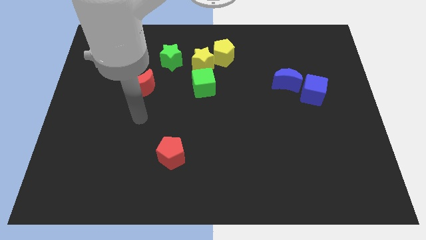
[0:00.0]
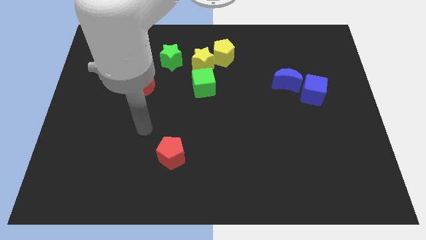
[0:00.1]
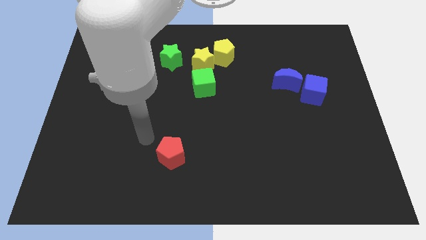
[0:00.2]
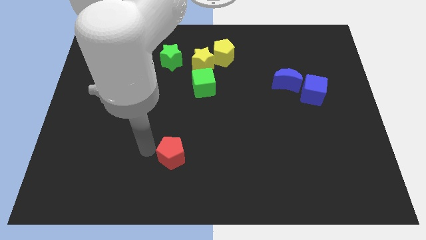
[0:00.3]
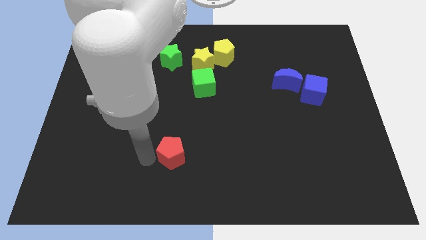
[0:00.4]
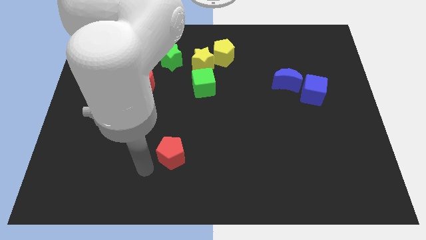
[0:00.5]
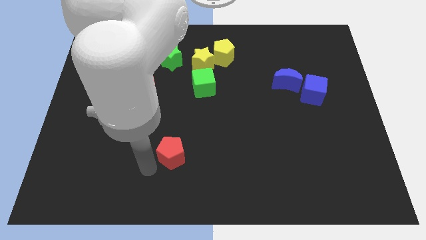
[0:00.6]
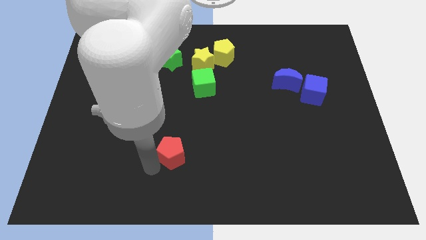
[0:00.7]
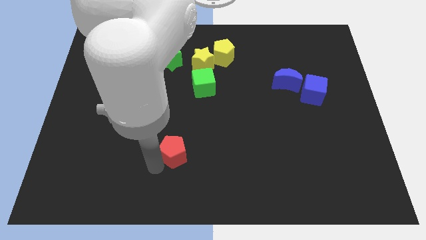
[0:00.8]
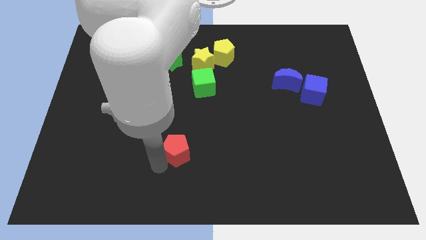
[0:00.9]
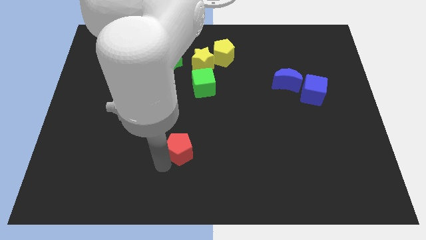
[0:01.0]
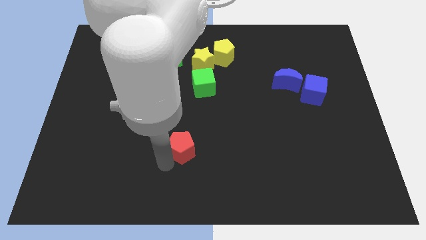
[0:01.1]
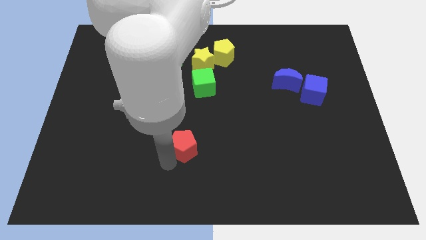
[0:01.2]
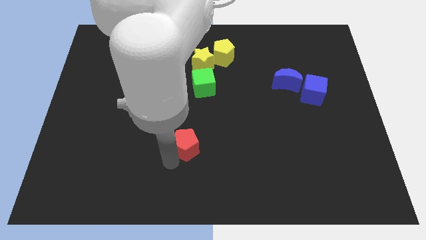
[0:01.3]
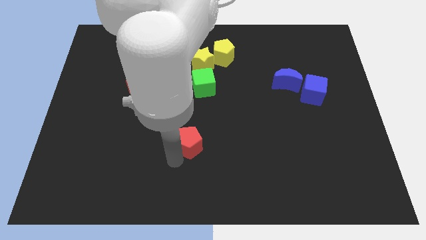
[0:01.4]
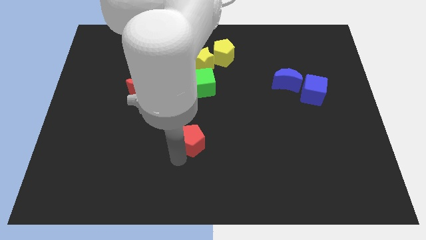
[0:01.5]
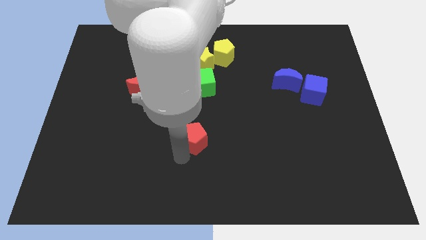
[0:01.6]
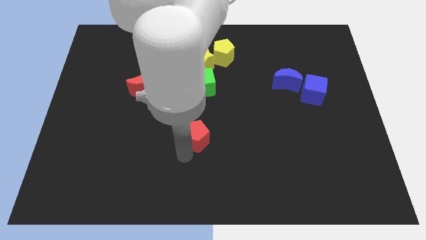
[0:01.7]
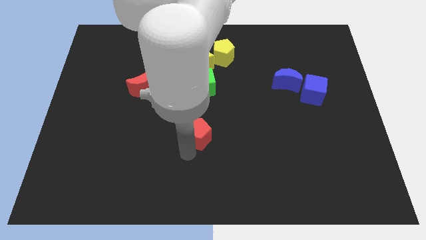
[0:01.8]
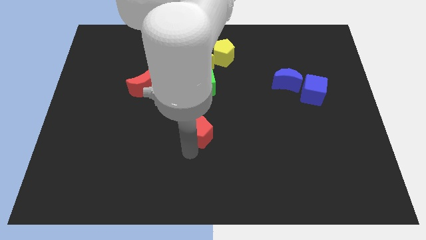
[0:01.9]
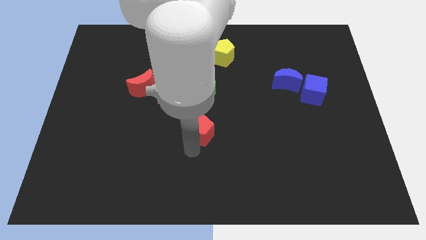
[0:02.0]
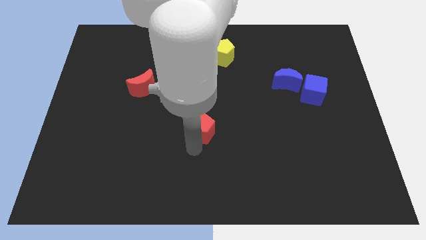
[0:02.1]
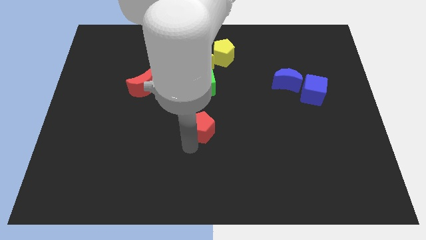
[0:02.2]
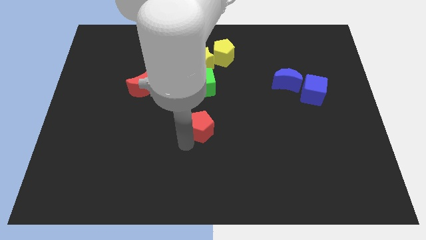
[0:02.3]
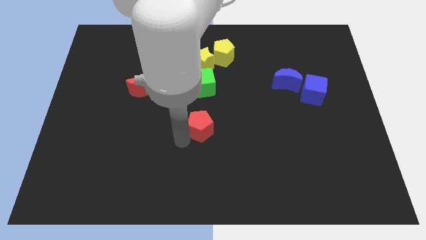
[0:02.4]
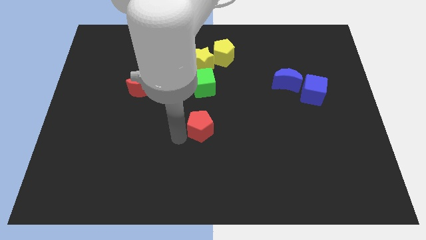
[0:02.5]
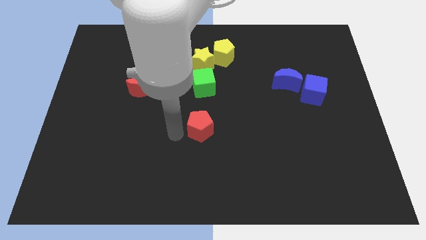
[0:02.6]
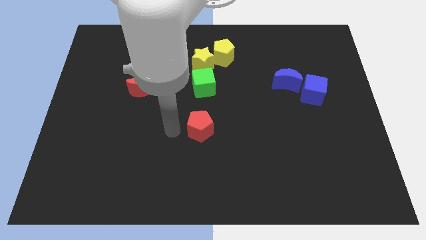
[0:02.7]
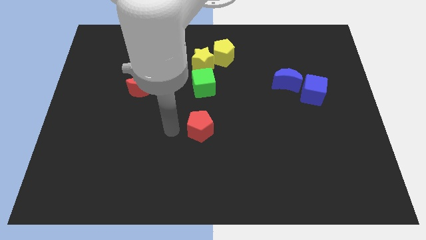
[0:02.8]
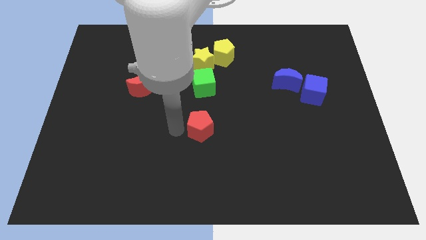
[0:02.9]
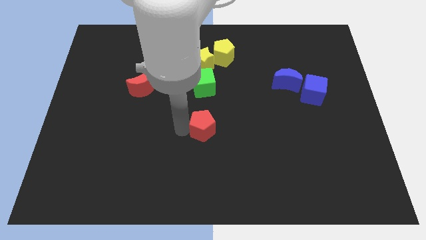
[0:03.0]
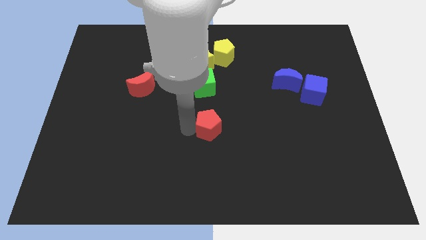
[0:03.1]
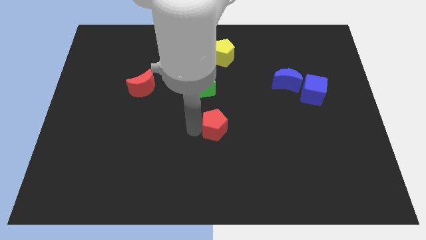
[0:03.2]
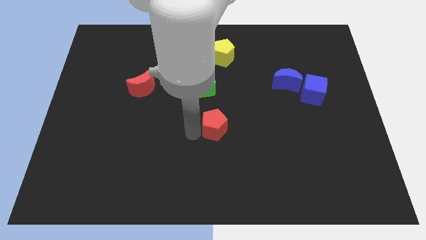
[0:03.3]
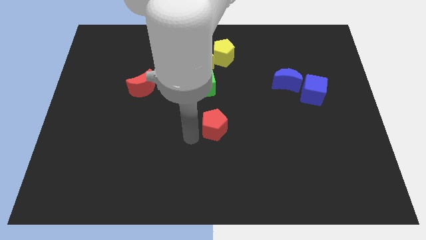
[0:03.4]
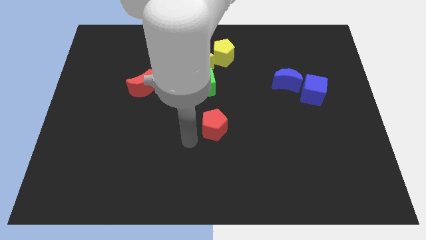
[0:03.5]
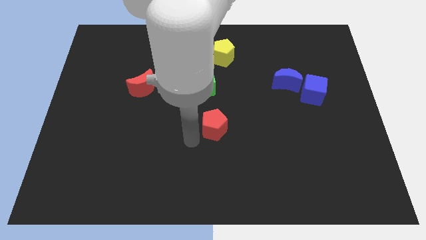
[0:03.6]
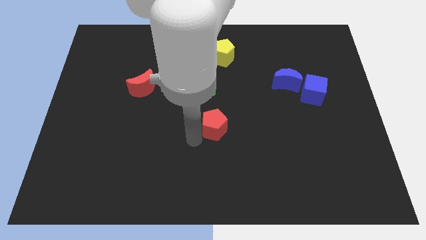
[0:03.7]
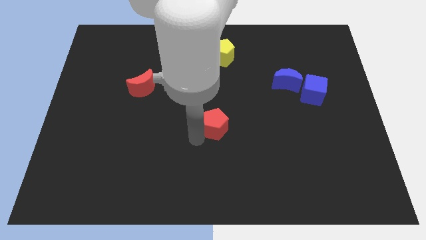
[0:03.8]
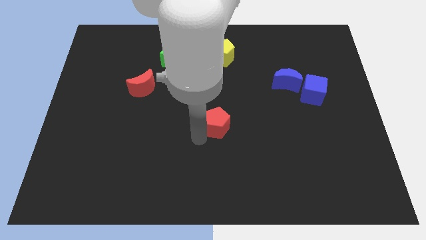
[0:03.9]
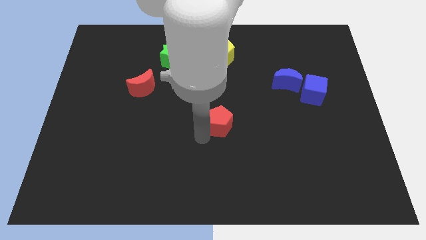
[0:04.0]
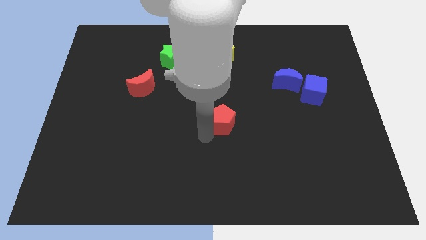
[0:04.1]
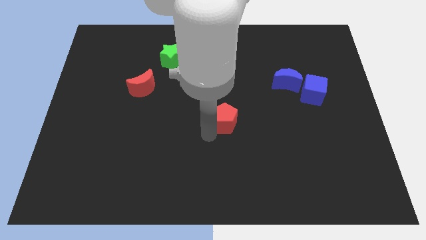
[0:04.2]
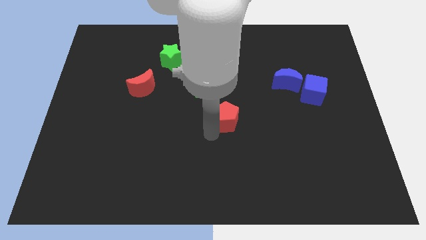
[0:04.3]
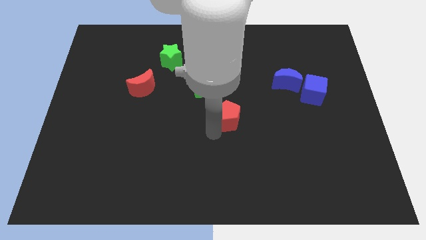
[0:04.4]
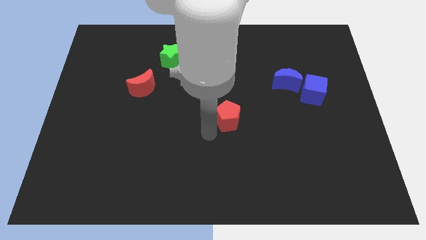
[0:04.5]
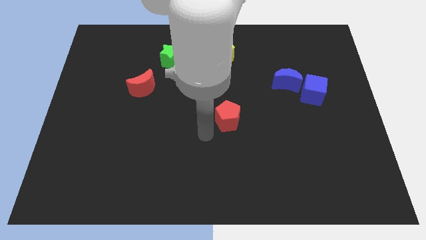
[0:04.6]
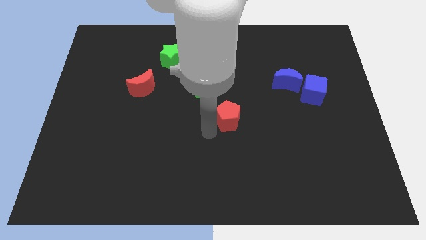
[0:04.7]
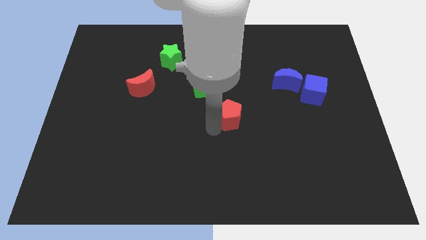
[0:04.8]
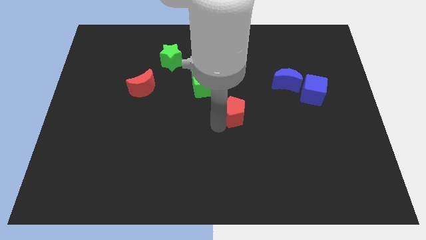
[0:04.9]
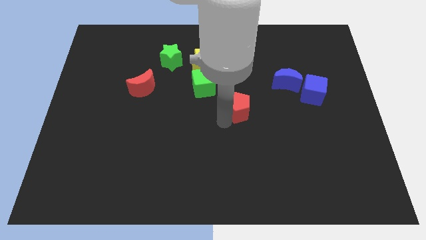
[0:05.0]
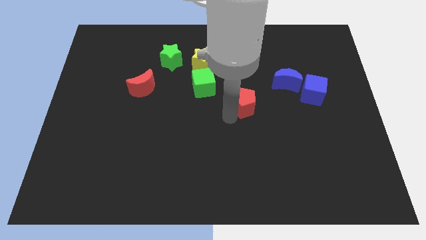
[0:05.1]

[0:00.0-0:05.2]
move the red pentagon up and then right

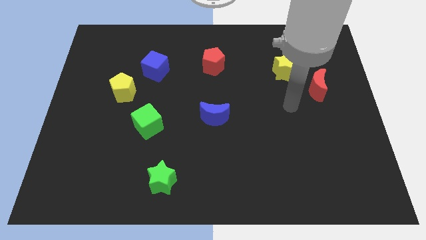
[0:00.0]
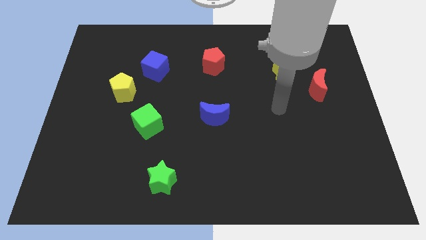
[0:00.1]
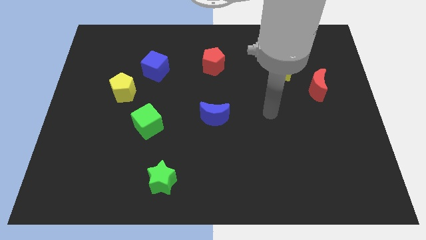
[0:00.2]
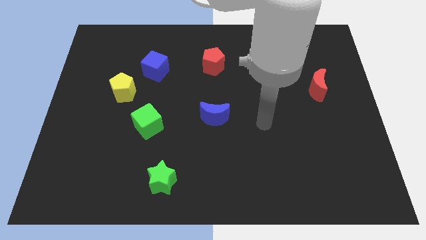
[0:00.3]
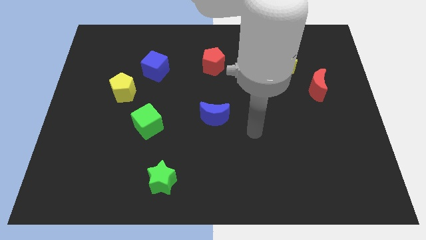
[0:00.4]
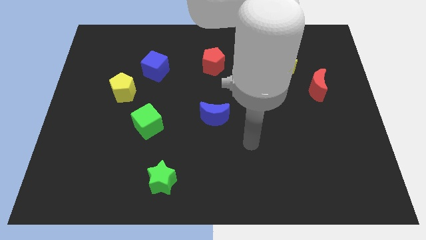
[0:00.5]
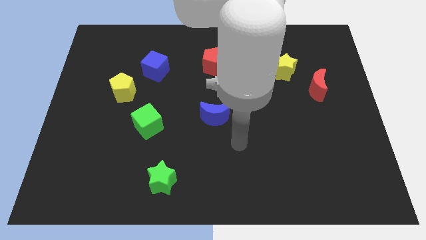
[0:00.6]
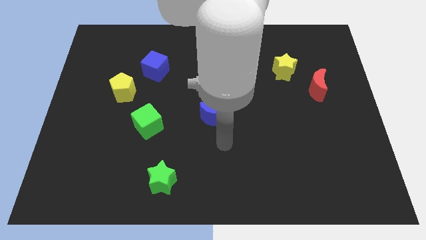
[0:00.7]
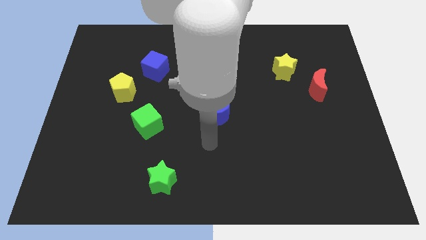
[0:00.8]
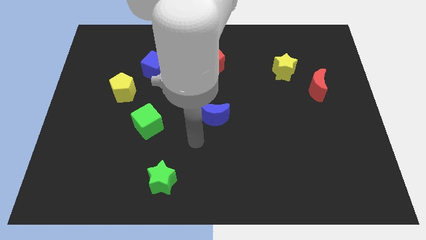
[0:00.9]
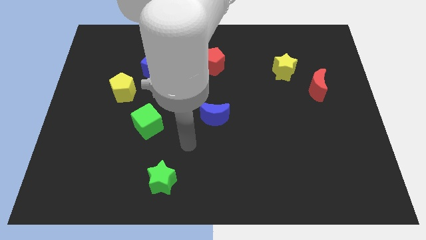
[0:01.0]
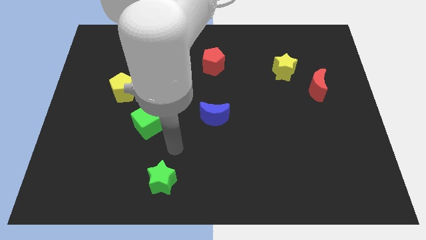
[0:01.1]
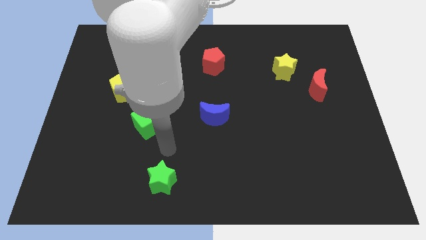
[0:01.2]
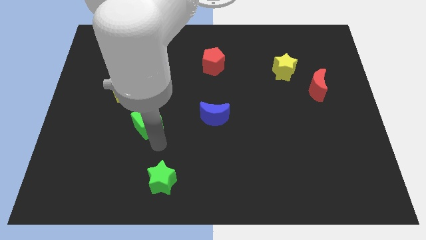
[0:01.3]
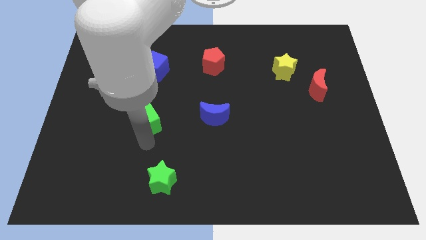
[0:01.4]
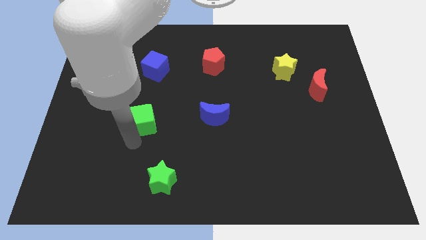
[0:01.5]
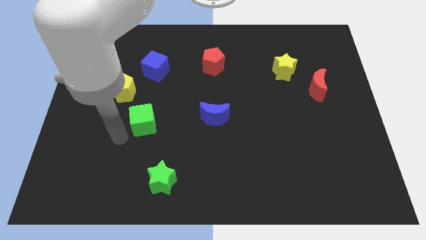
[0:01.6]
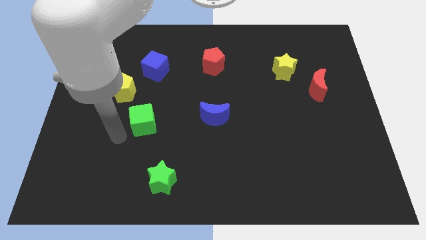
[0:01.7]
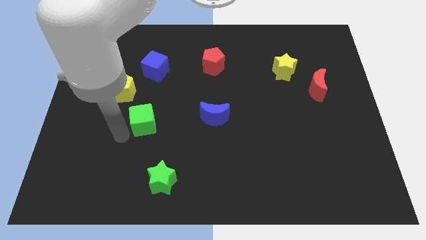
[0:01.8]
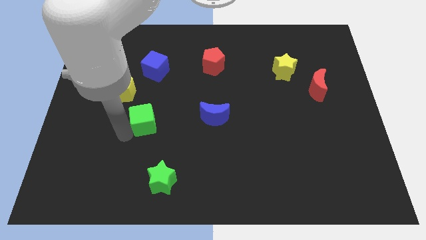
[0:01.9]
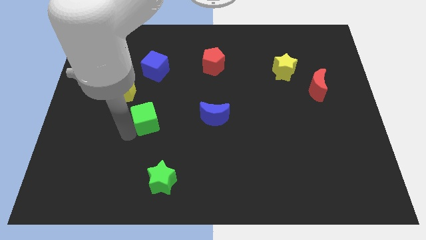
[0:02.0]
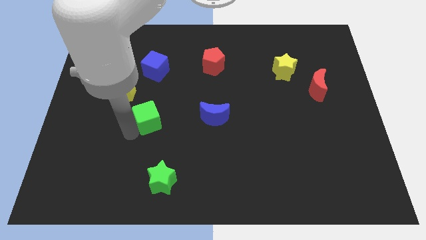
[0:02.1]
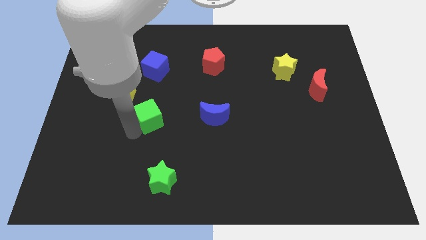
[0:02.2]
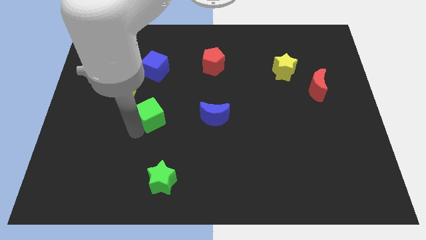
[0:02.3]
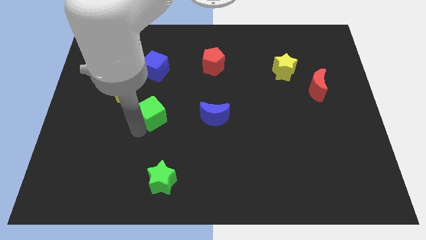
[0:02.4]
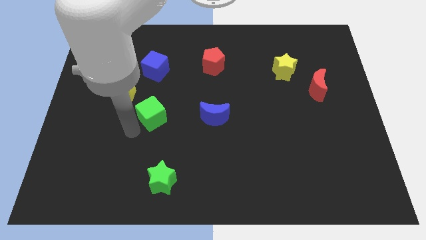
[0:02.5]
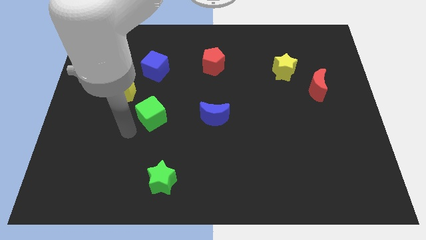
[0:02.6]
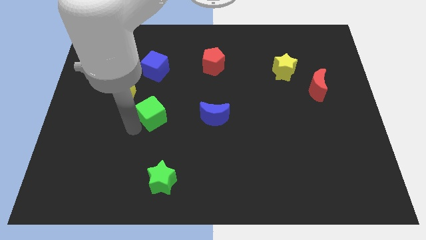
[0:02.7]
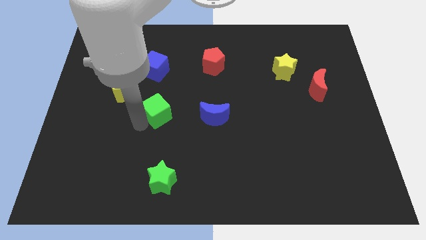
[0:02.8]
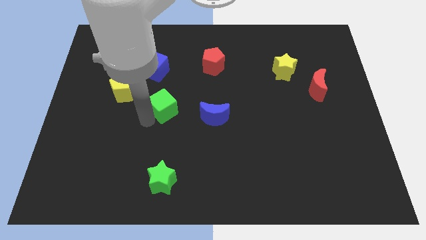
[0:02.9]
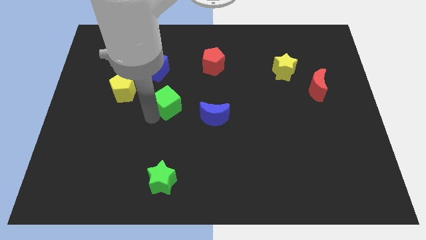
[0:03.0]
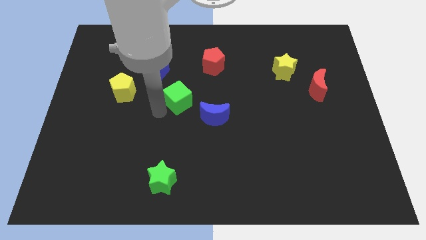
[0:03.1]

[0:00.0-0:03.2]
move the green cube up and to the right somewhat
